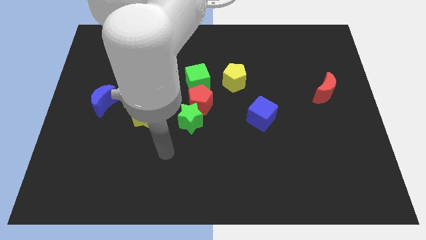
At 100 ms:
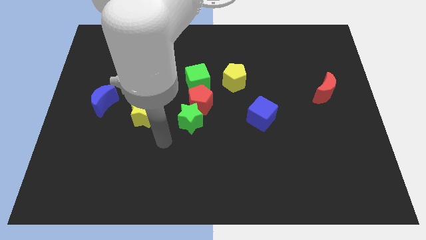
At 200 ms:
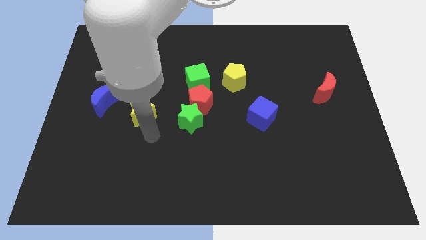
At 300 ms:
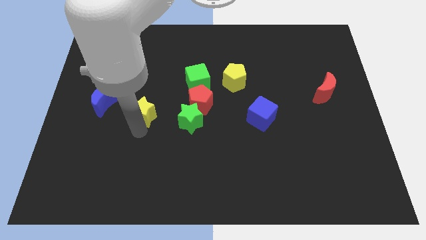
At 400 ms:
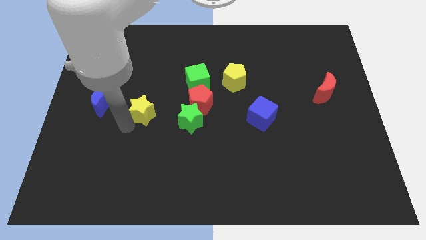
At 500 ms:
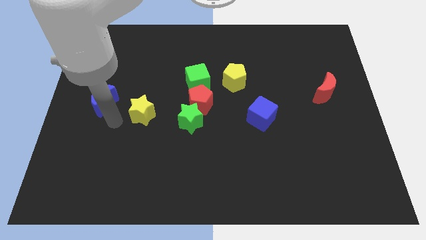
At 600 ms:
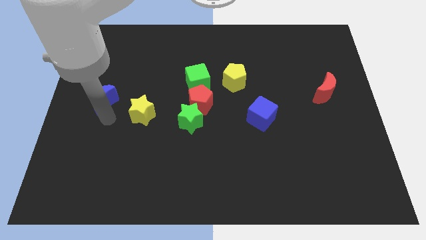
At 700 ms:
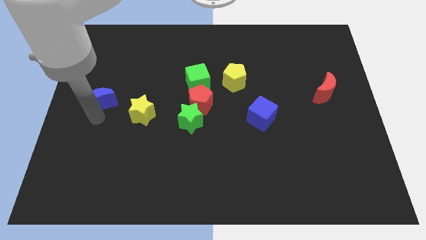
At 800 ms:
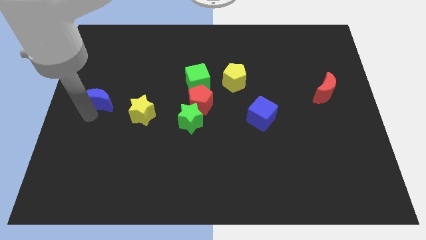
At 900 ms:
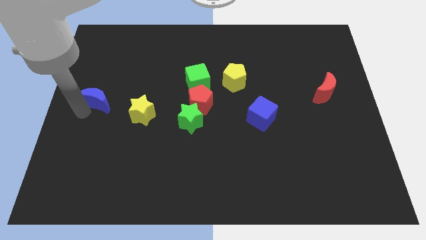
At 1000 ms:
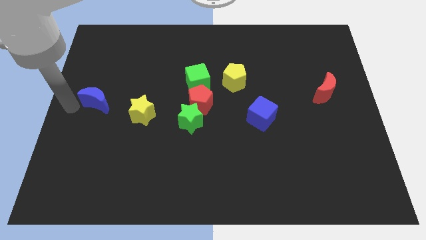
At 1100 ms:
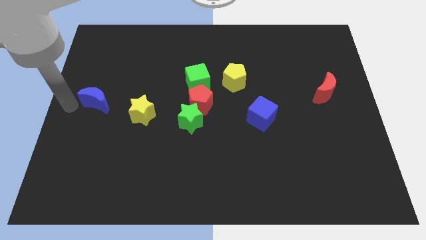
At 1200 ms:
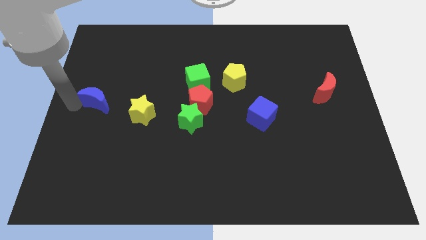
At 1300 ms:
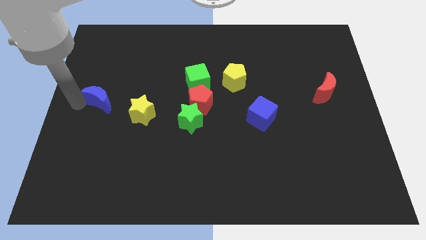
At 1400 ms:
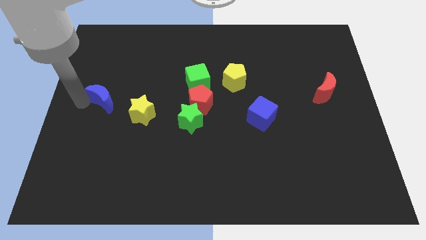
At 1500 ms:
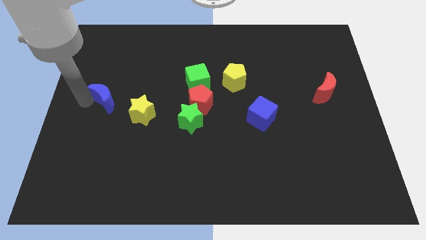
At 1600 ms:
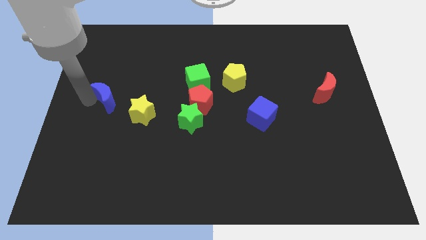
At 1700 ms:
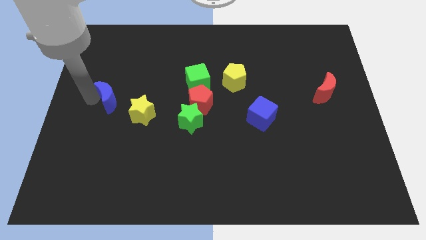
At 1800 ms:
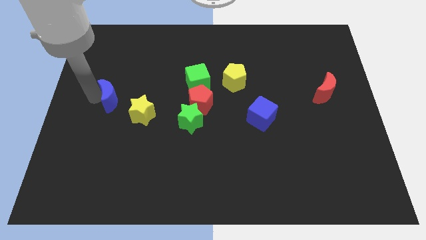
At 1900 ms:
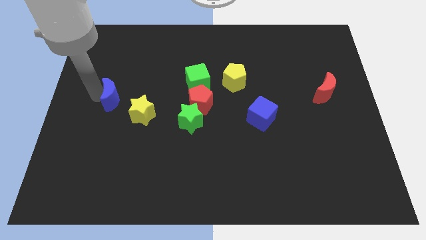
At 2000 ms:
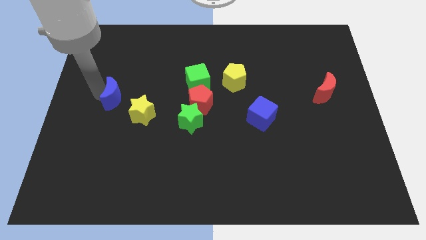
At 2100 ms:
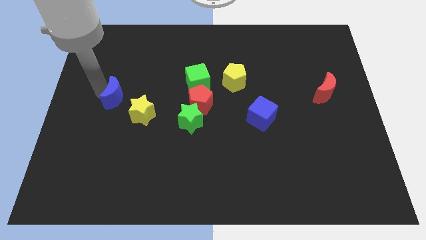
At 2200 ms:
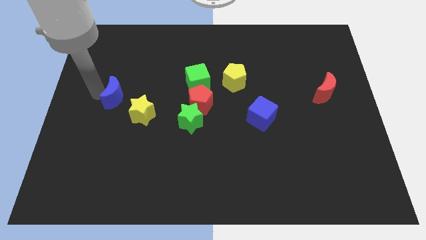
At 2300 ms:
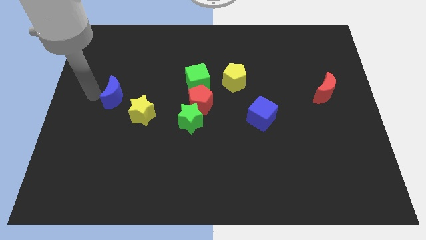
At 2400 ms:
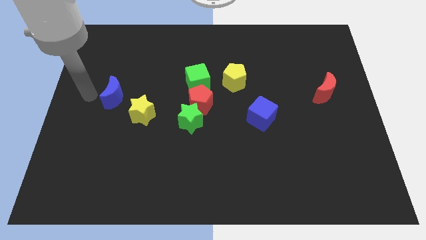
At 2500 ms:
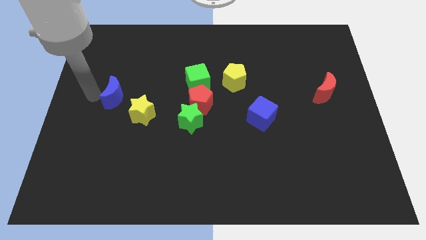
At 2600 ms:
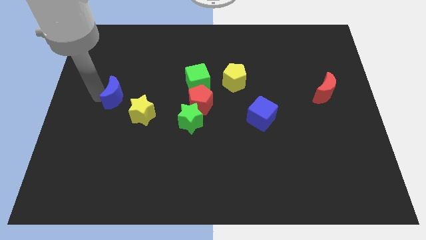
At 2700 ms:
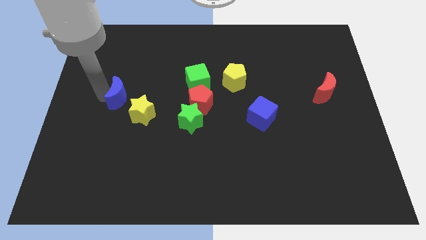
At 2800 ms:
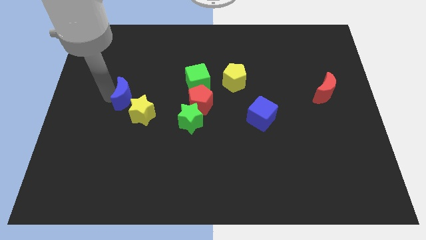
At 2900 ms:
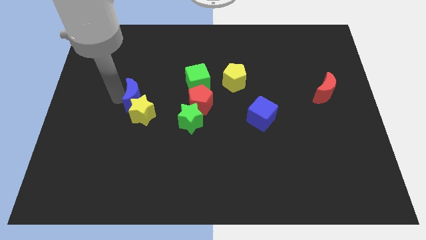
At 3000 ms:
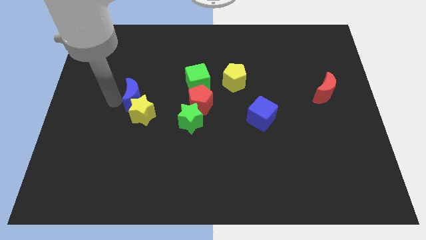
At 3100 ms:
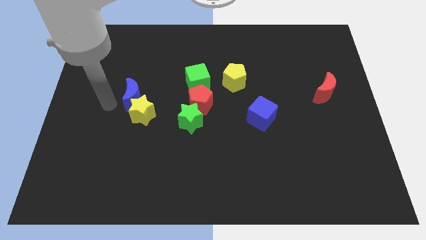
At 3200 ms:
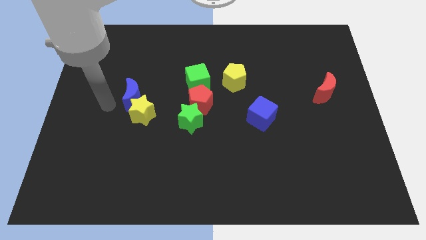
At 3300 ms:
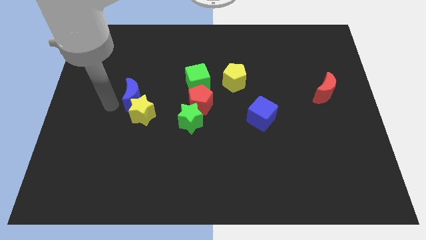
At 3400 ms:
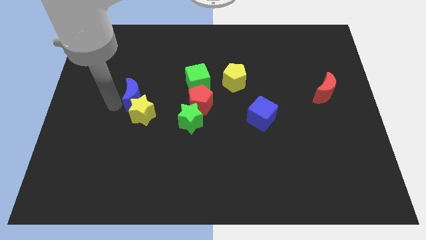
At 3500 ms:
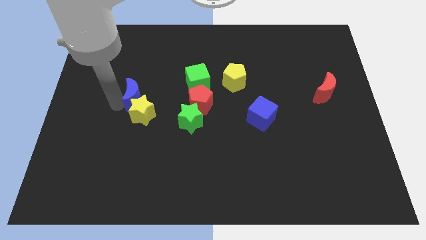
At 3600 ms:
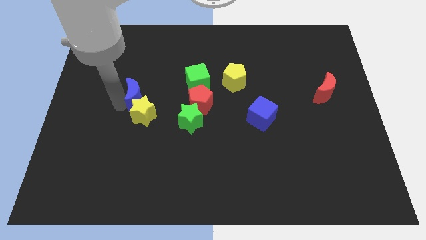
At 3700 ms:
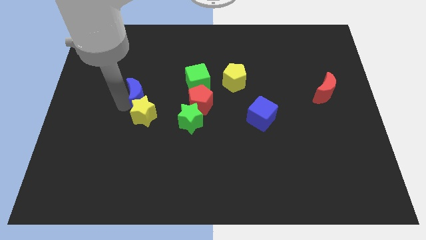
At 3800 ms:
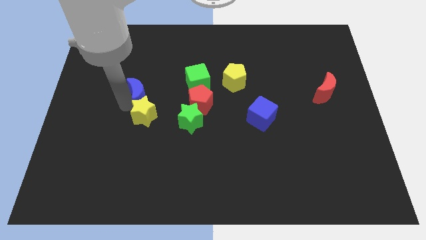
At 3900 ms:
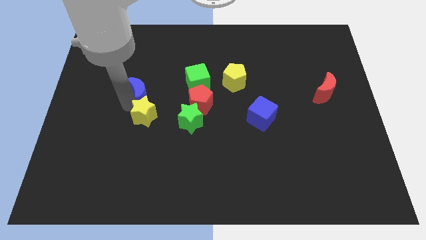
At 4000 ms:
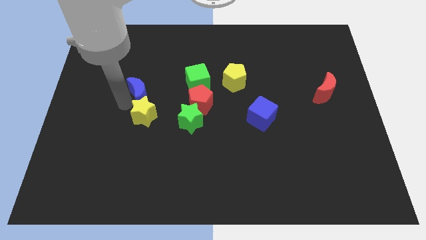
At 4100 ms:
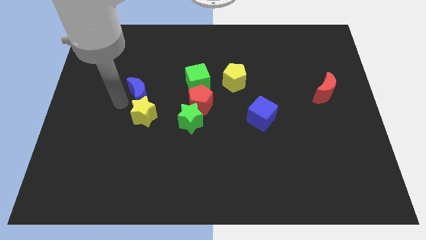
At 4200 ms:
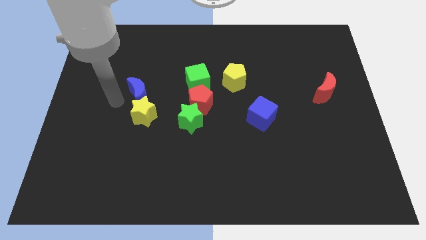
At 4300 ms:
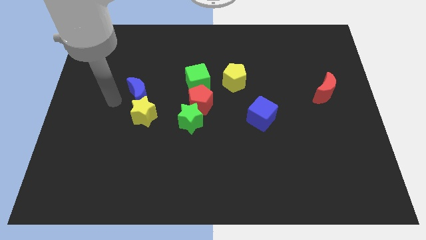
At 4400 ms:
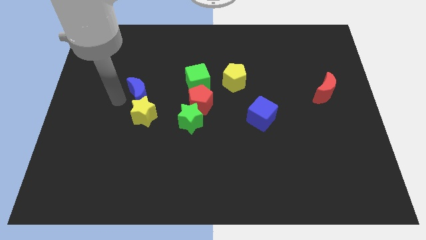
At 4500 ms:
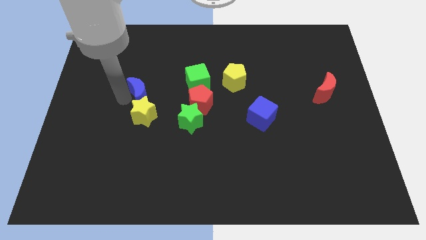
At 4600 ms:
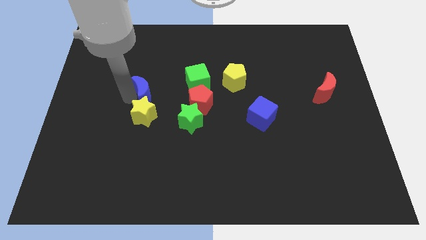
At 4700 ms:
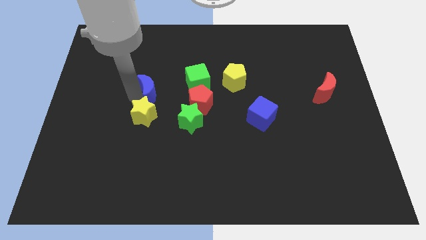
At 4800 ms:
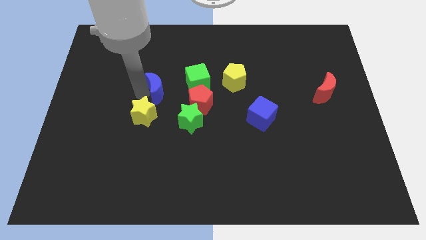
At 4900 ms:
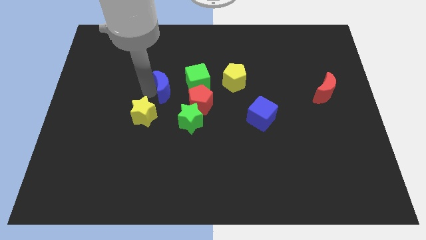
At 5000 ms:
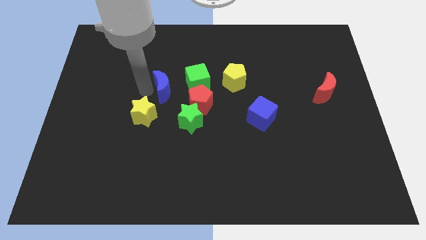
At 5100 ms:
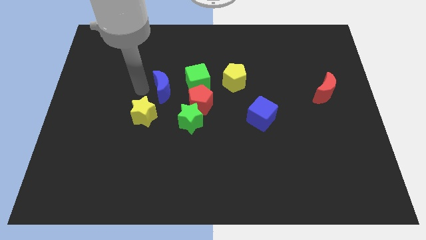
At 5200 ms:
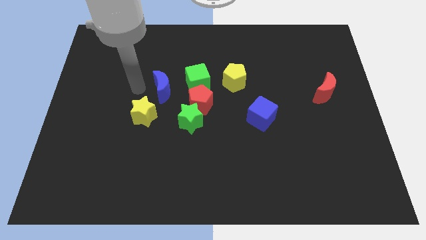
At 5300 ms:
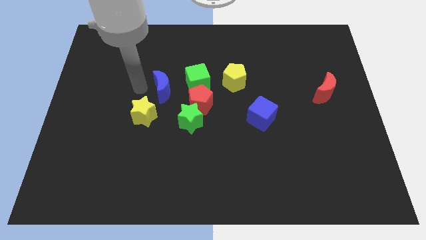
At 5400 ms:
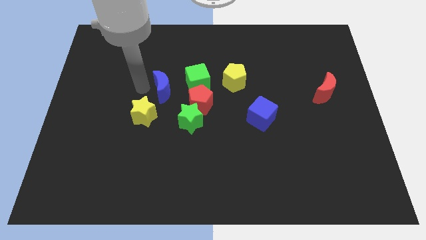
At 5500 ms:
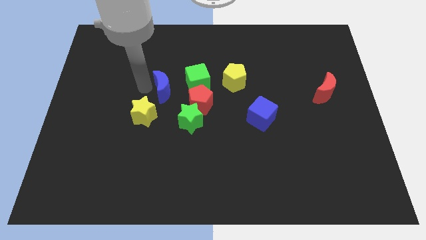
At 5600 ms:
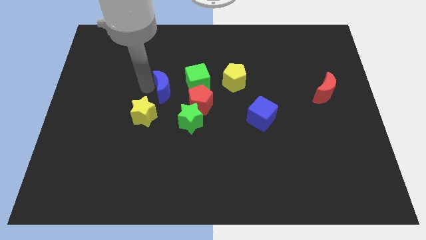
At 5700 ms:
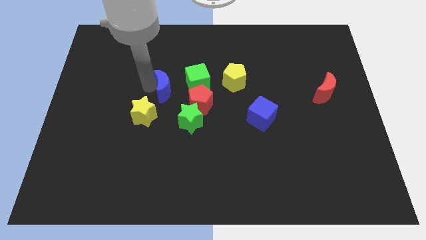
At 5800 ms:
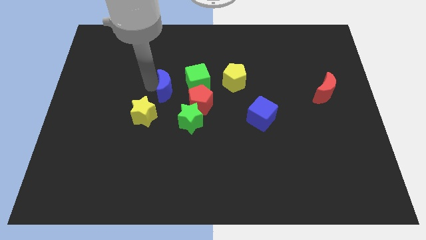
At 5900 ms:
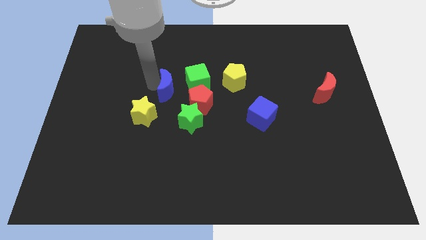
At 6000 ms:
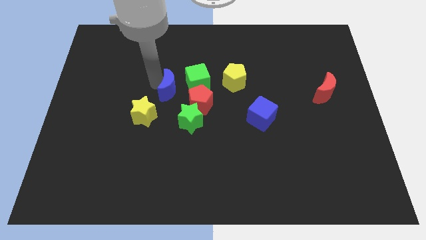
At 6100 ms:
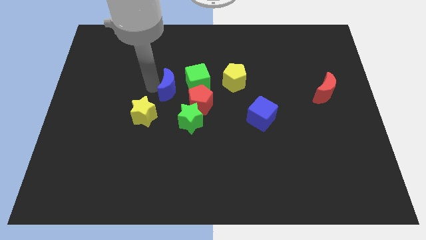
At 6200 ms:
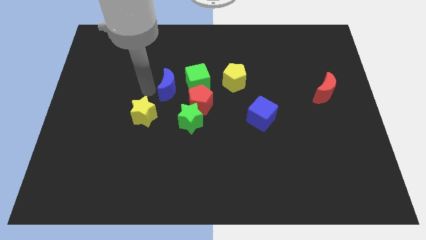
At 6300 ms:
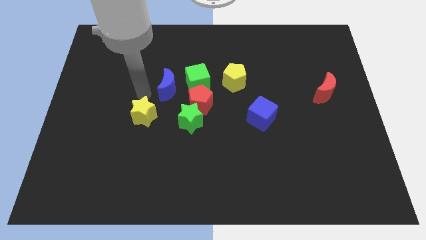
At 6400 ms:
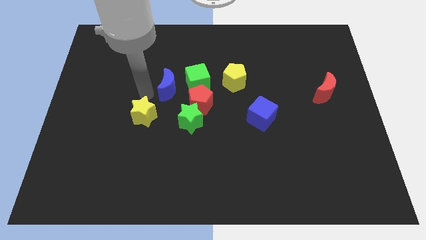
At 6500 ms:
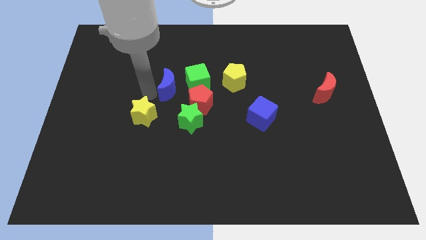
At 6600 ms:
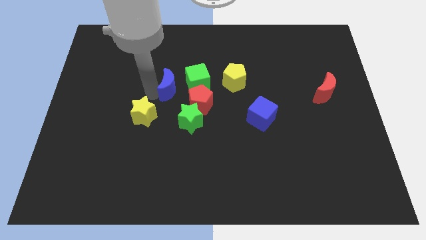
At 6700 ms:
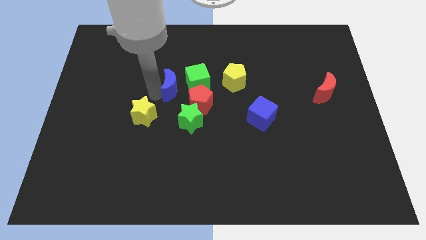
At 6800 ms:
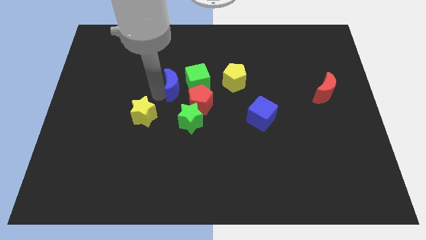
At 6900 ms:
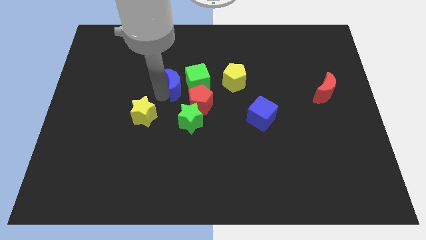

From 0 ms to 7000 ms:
push the blue moon towards the green cube

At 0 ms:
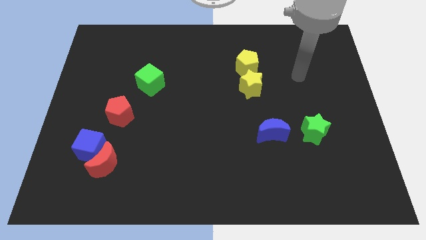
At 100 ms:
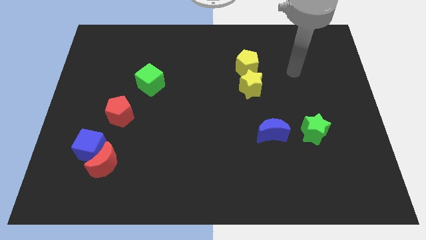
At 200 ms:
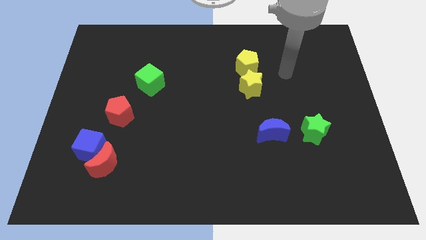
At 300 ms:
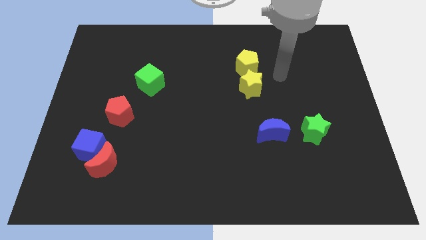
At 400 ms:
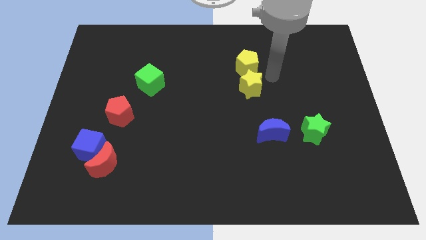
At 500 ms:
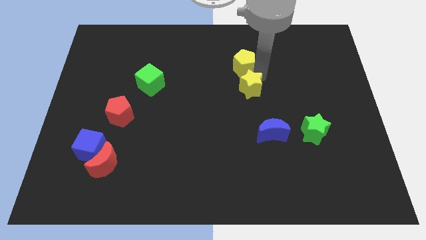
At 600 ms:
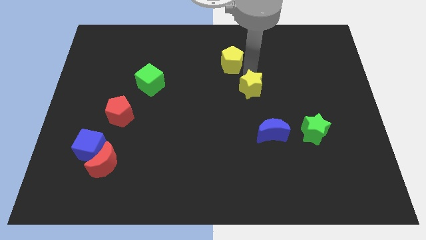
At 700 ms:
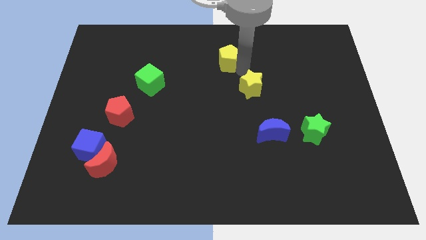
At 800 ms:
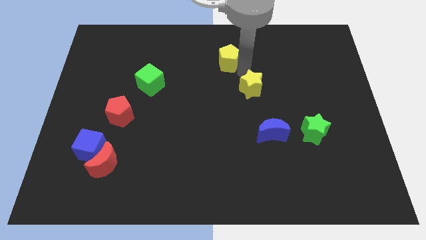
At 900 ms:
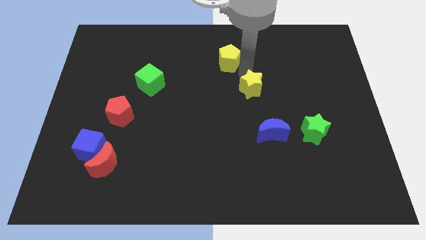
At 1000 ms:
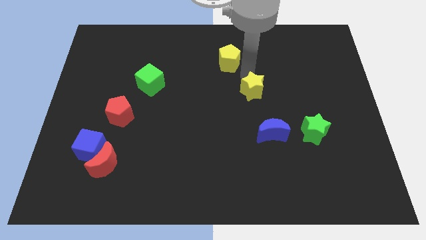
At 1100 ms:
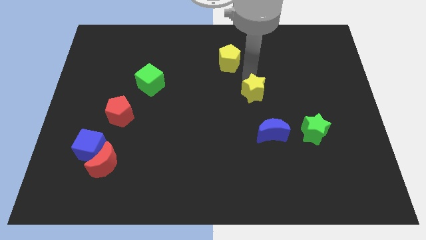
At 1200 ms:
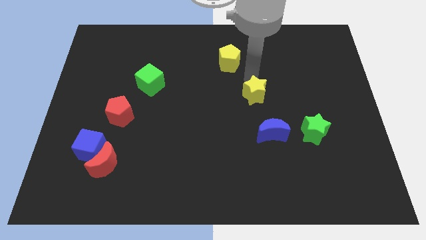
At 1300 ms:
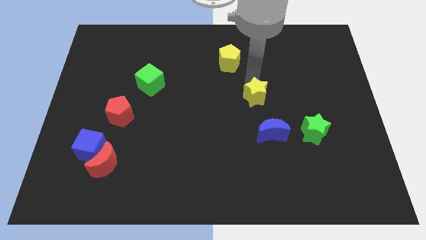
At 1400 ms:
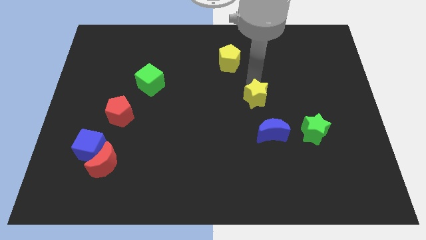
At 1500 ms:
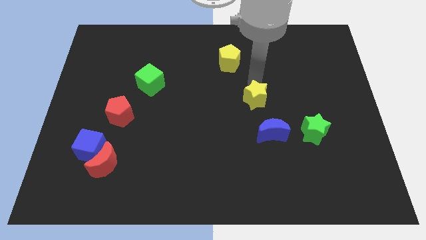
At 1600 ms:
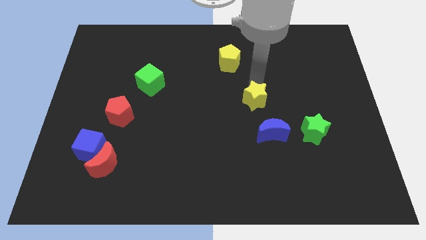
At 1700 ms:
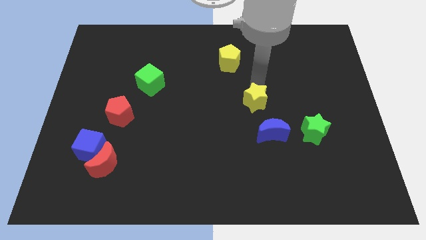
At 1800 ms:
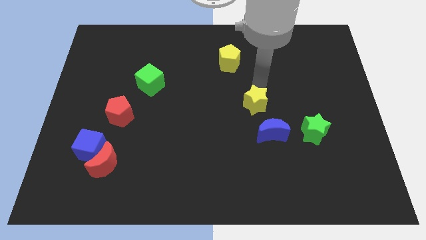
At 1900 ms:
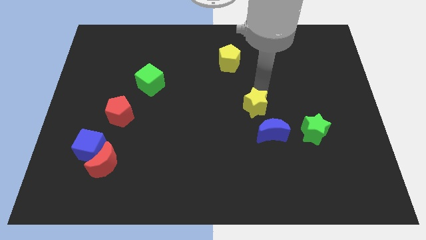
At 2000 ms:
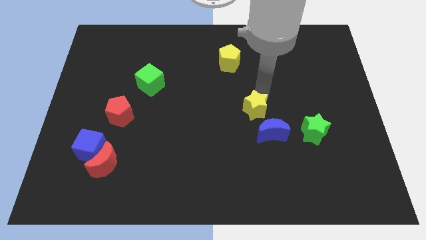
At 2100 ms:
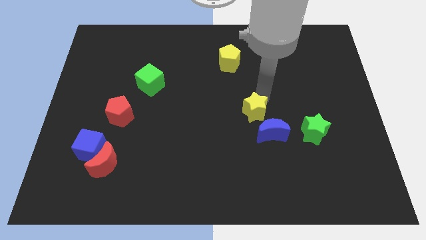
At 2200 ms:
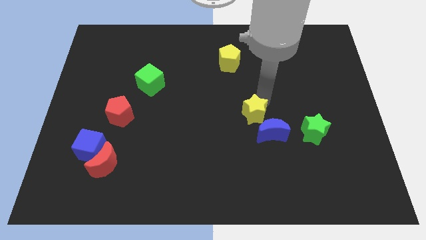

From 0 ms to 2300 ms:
slide the yellow star next to the blue moon
